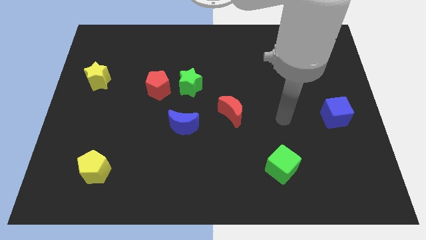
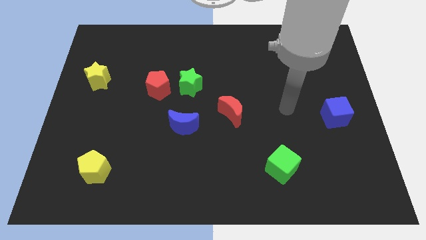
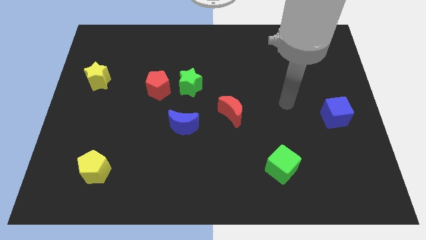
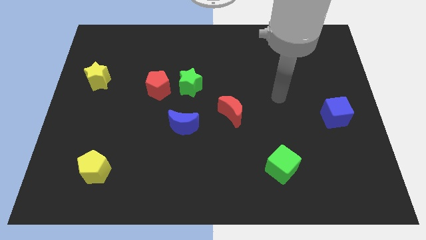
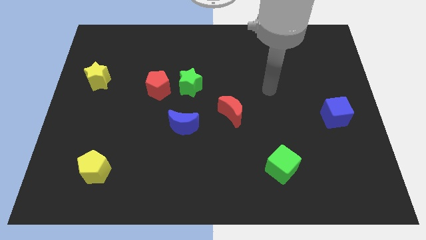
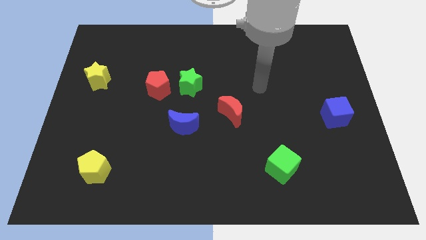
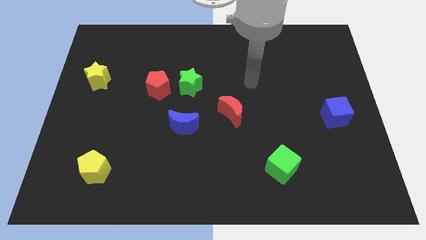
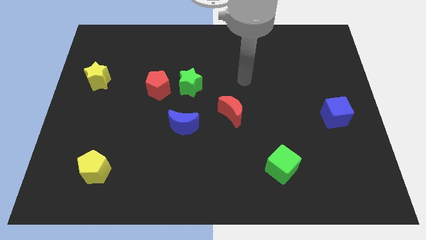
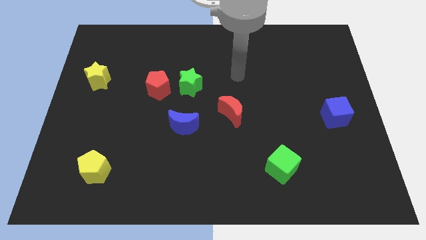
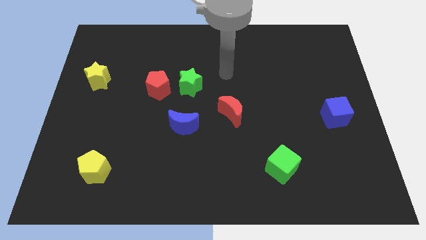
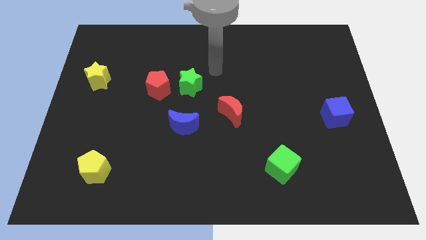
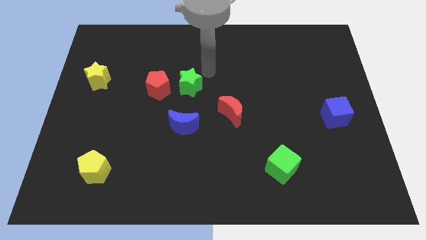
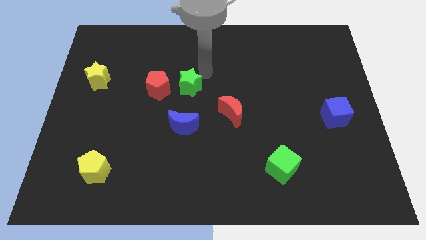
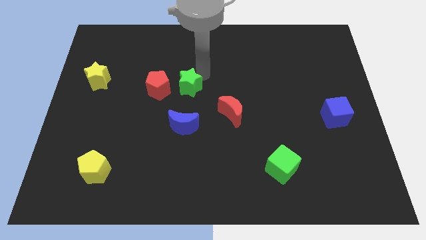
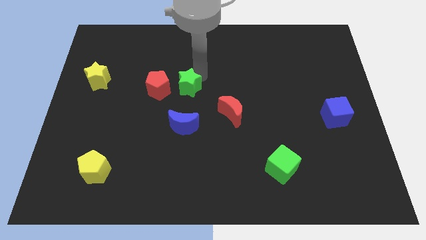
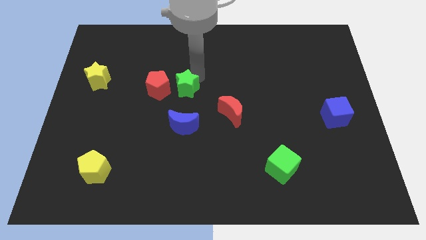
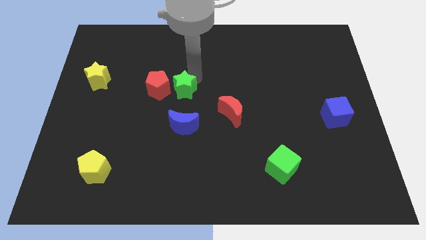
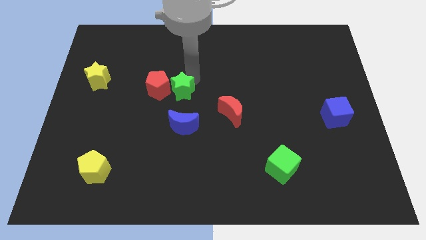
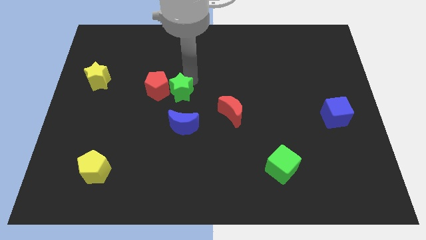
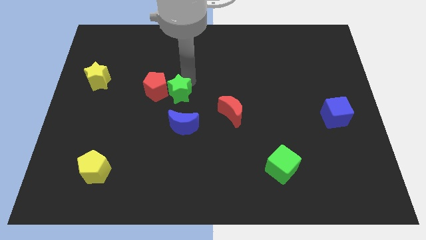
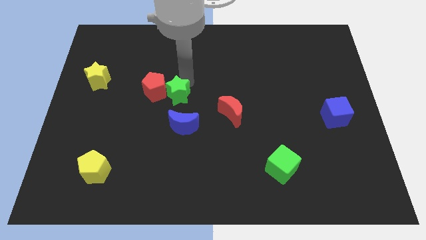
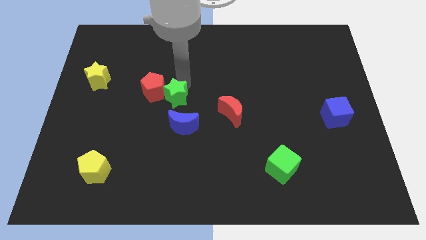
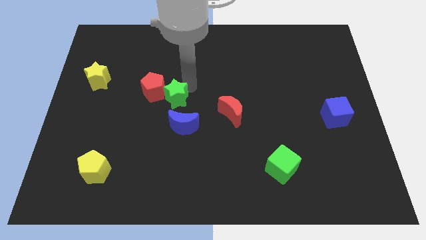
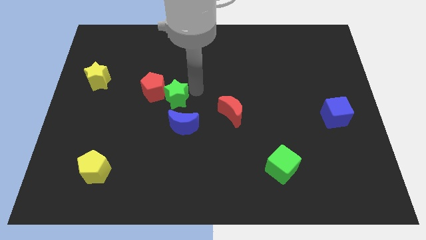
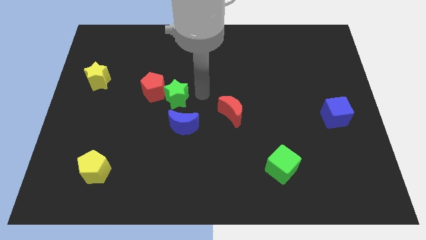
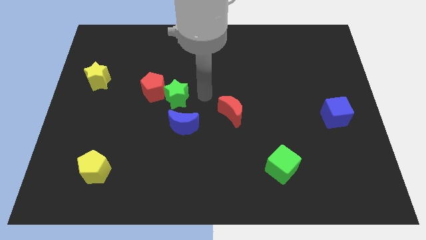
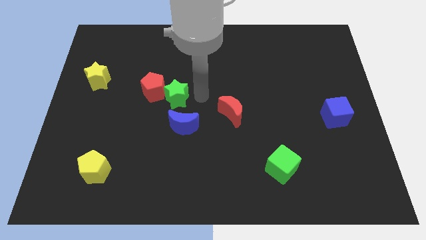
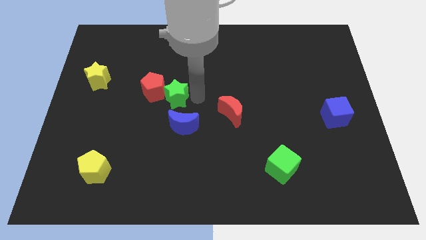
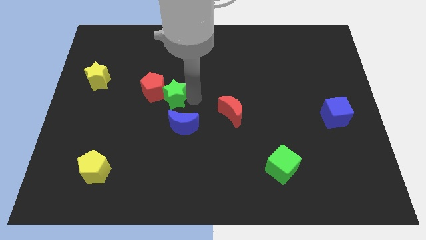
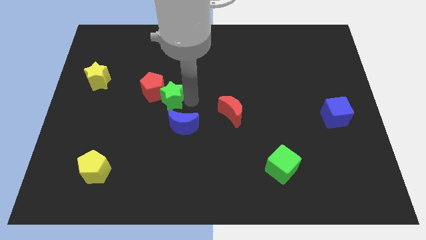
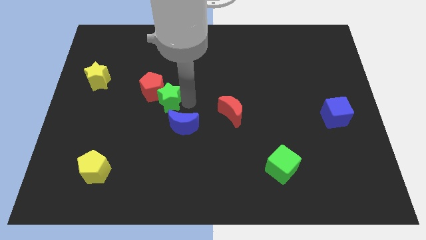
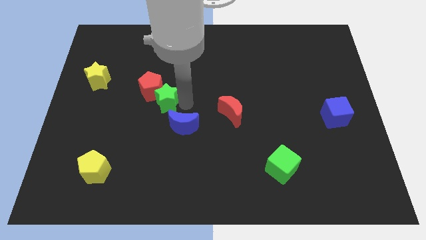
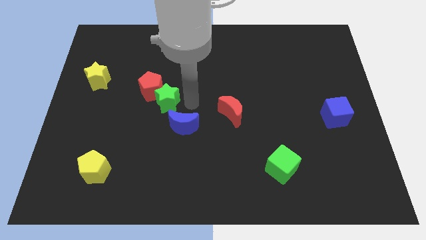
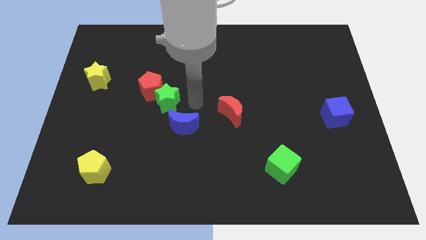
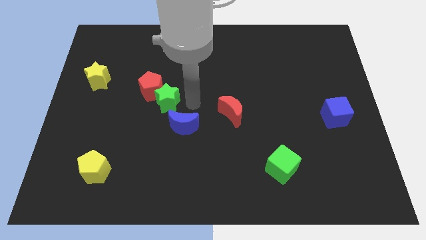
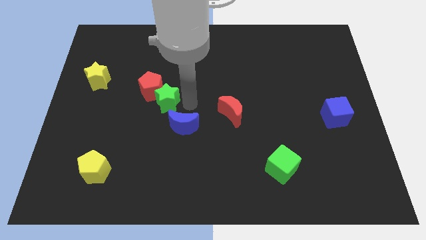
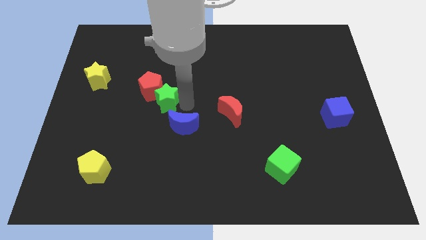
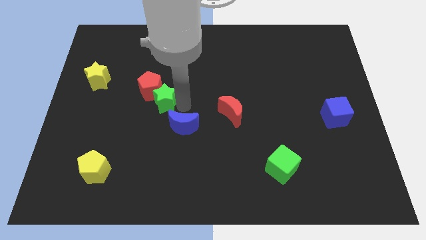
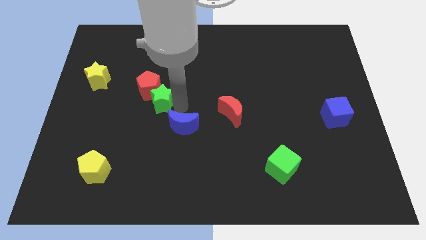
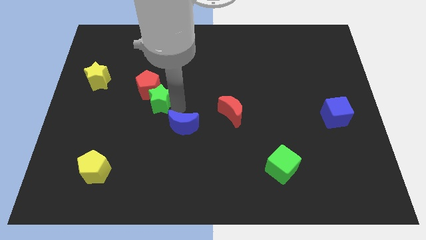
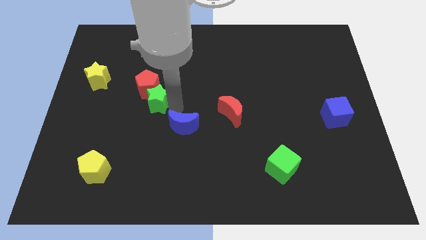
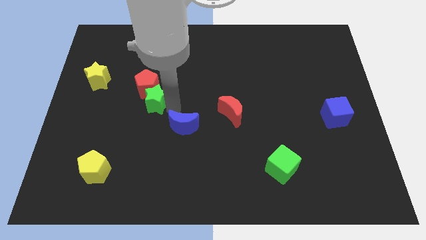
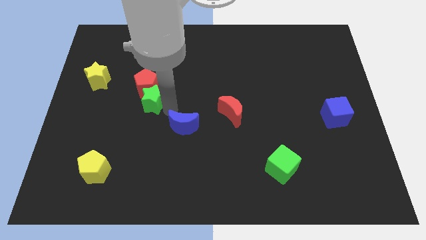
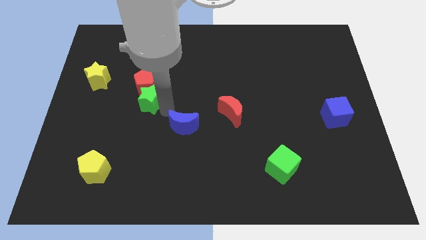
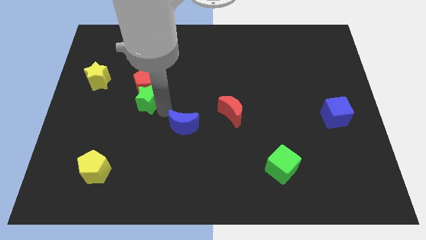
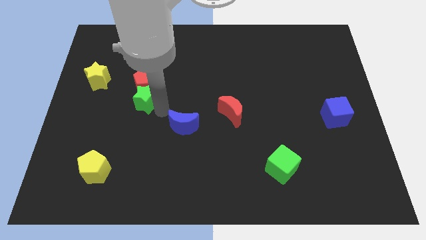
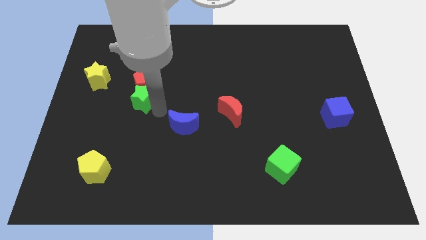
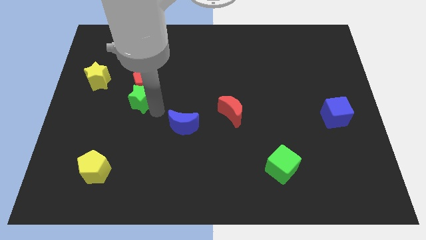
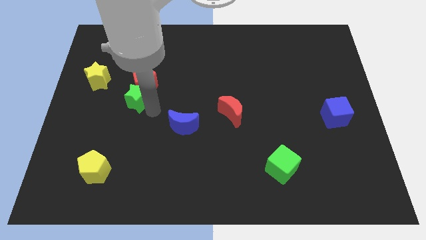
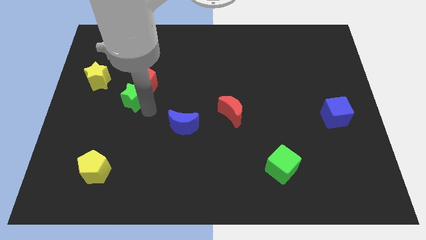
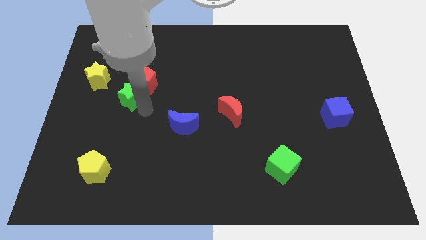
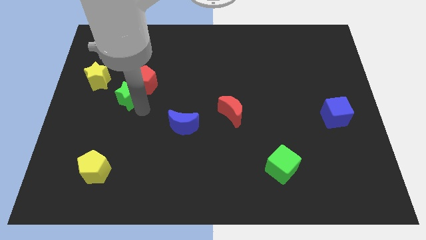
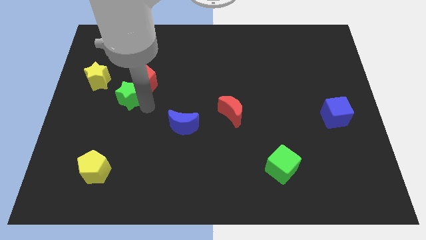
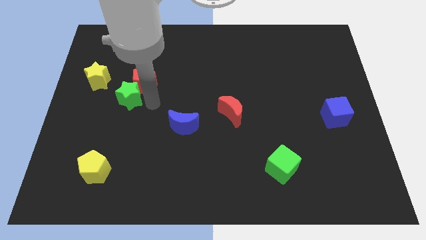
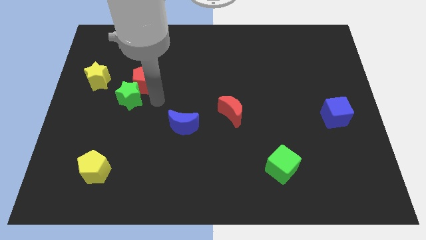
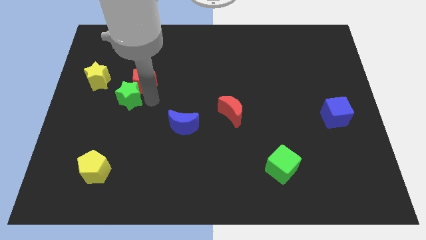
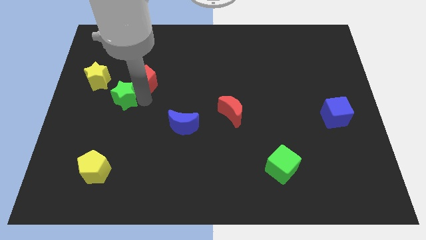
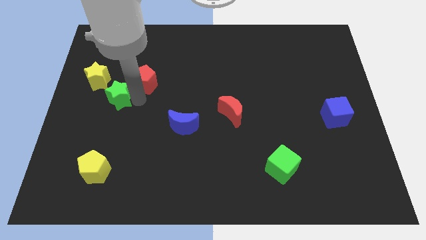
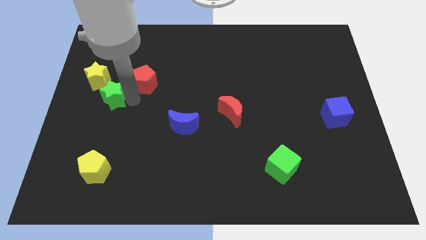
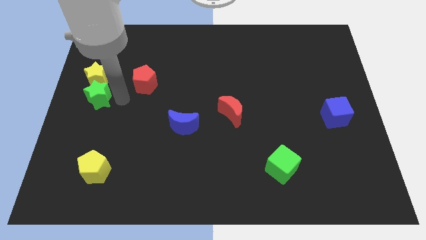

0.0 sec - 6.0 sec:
move the green star to the center left

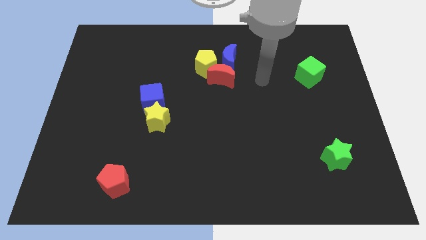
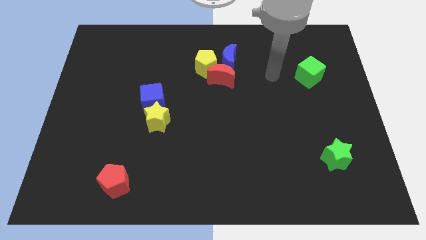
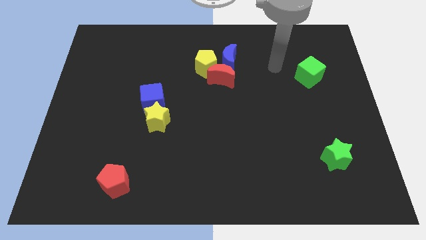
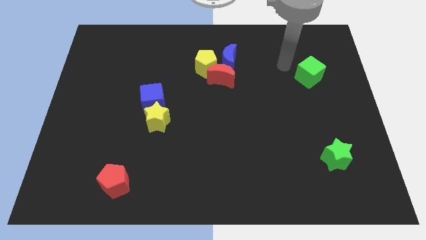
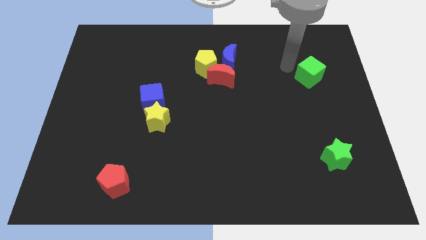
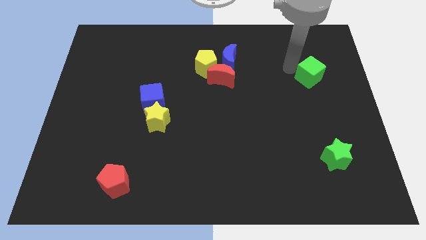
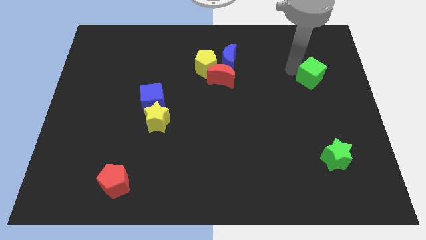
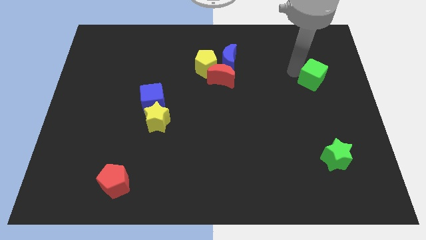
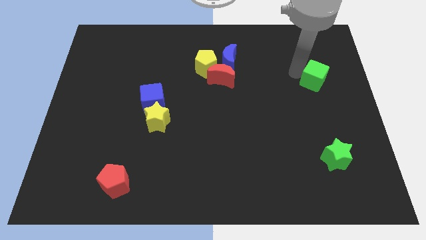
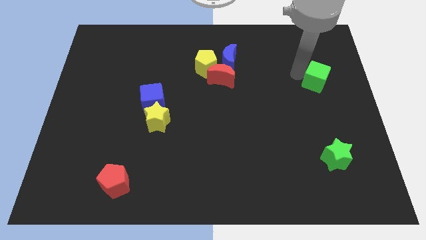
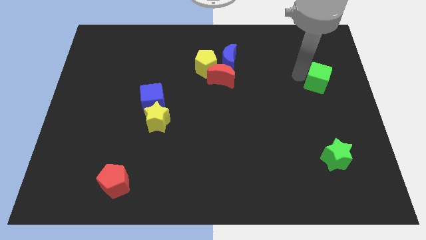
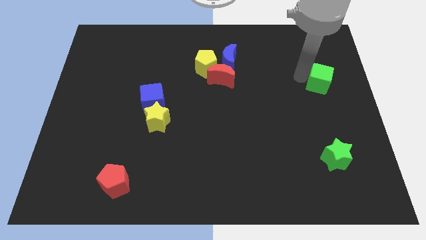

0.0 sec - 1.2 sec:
put the green cube to the center right
